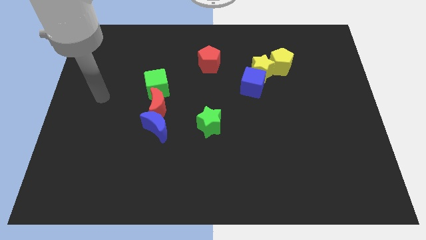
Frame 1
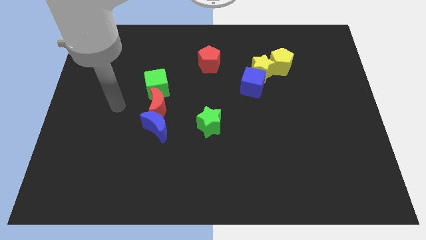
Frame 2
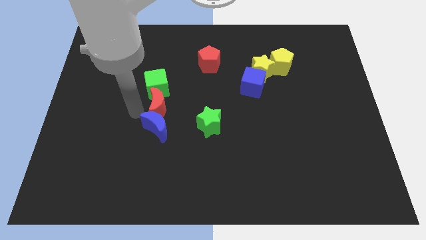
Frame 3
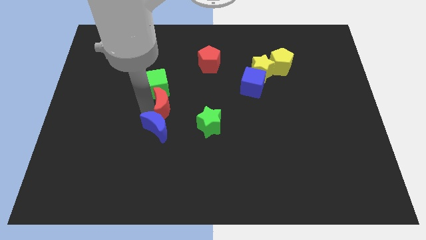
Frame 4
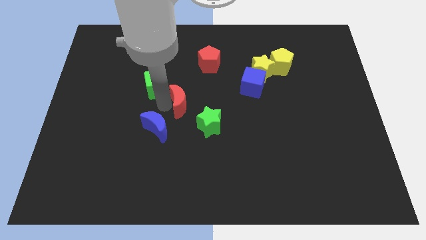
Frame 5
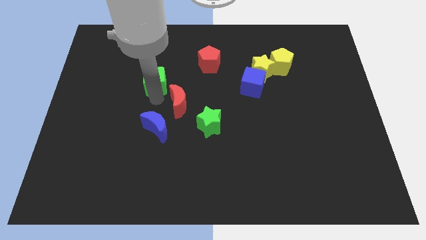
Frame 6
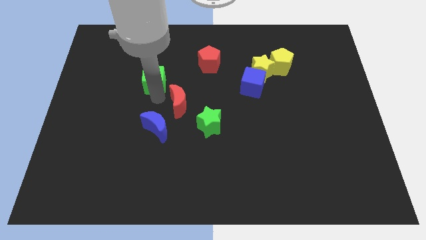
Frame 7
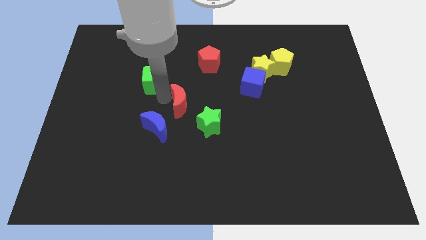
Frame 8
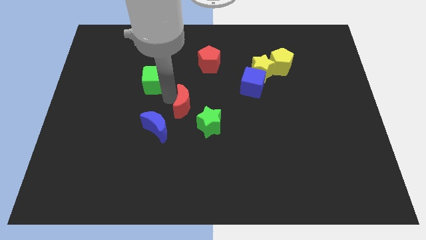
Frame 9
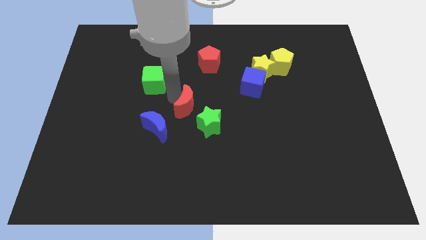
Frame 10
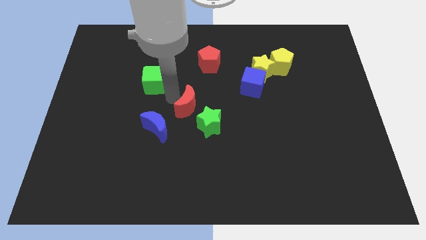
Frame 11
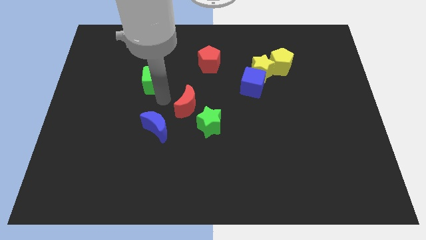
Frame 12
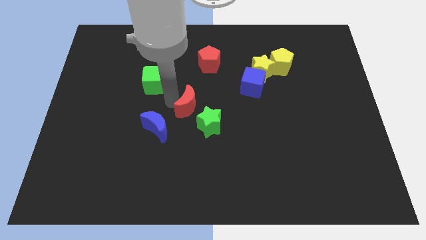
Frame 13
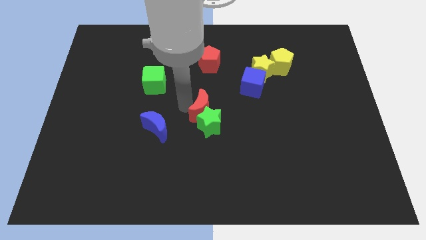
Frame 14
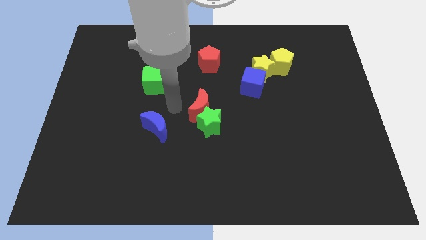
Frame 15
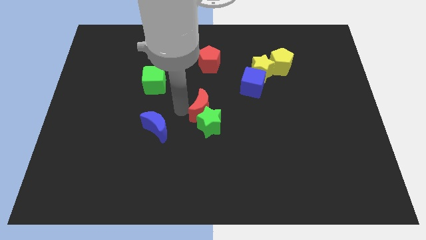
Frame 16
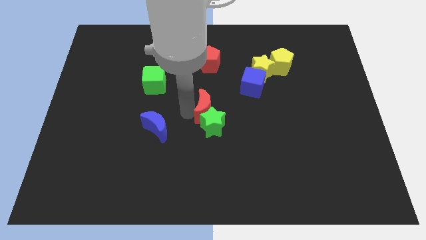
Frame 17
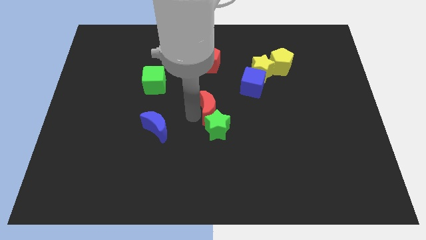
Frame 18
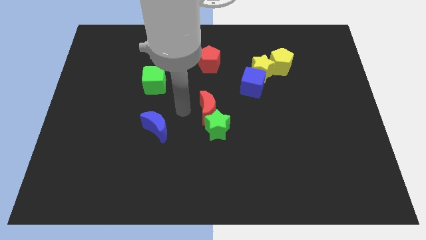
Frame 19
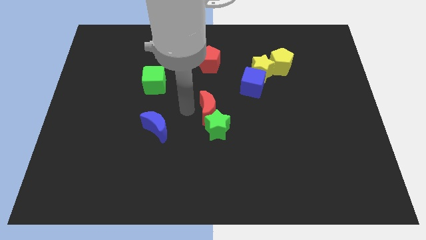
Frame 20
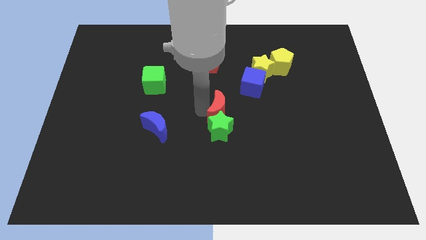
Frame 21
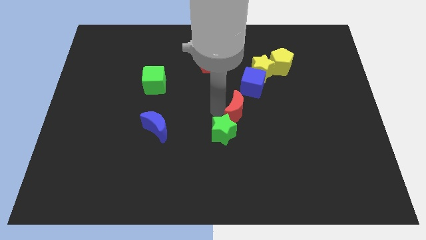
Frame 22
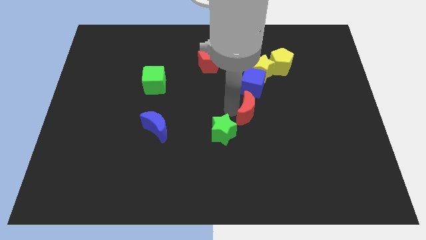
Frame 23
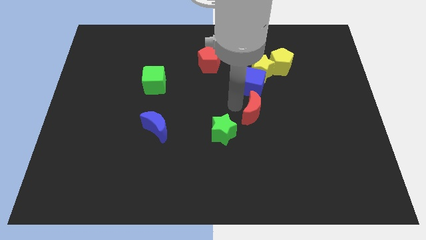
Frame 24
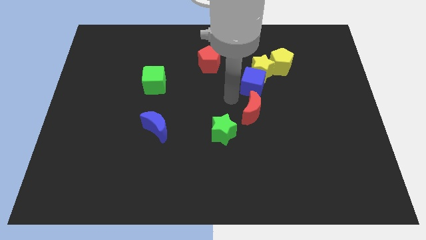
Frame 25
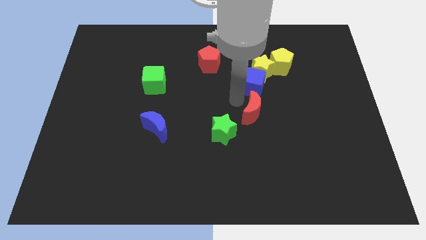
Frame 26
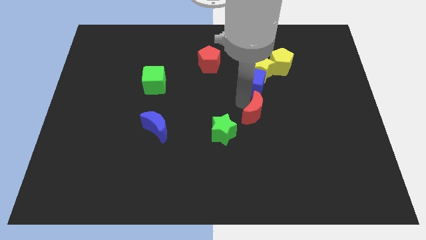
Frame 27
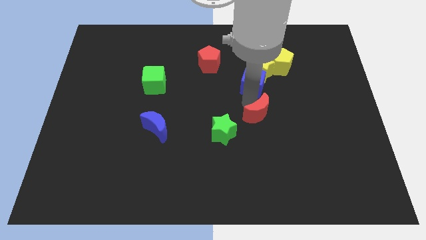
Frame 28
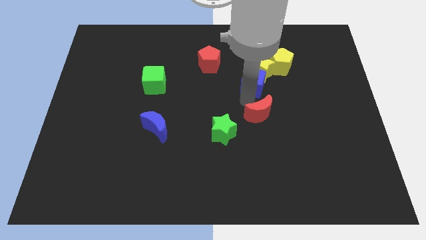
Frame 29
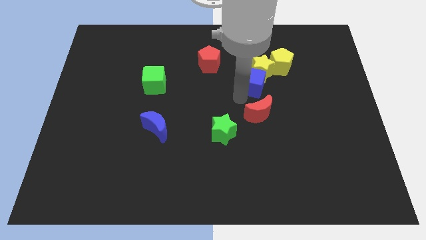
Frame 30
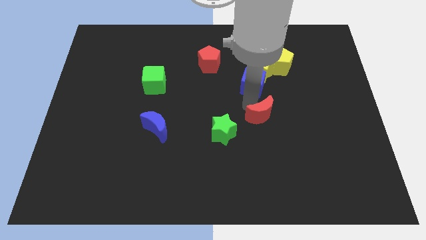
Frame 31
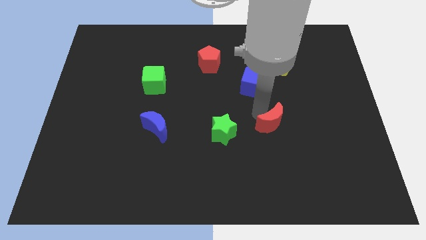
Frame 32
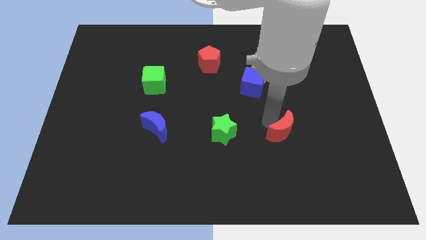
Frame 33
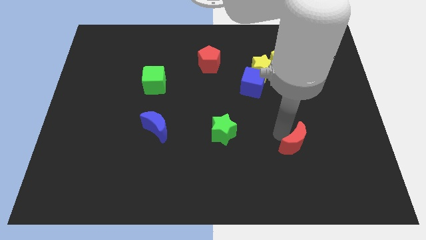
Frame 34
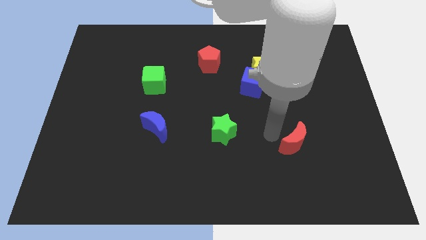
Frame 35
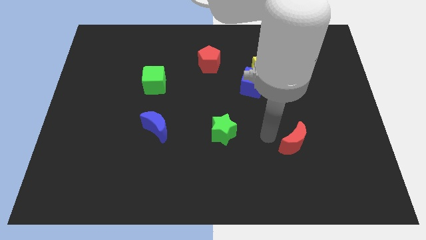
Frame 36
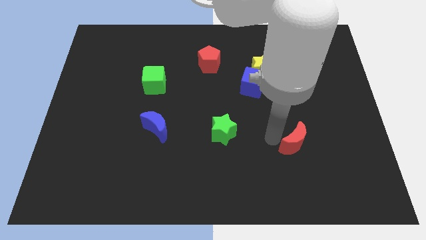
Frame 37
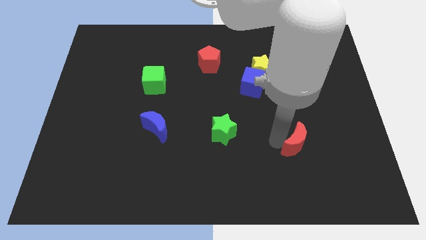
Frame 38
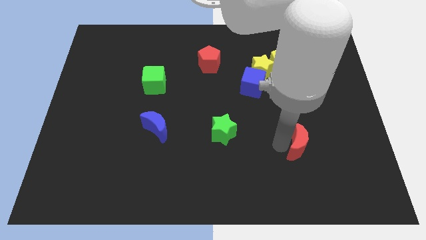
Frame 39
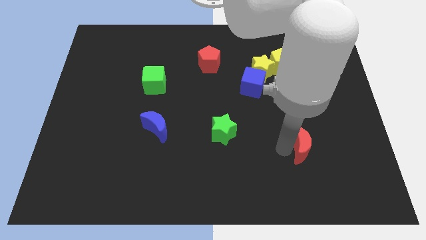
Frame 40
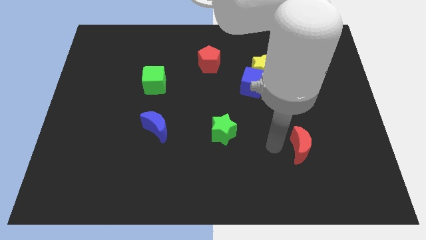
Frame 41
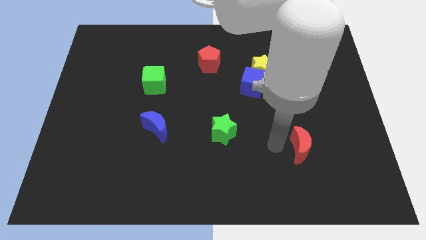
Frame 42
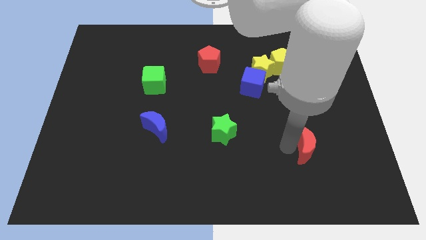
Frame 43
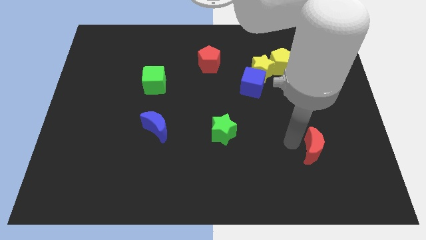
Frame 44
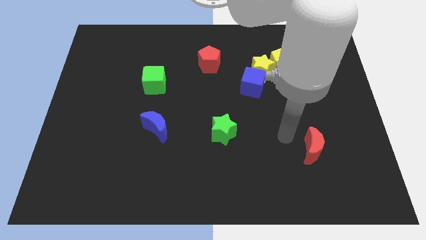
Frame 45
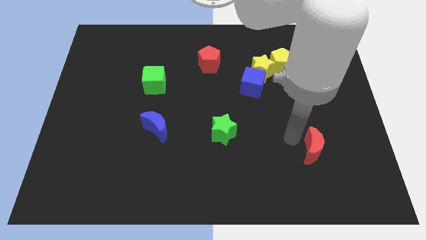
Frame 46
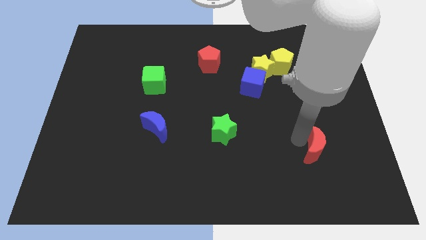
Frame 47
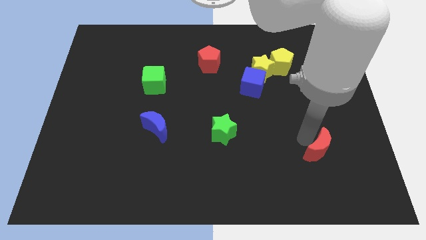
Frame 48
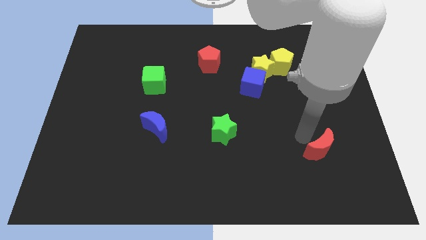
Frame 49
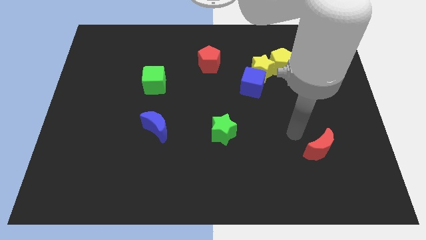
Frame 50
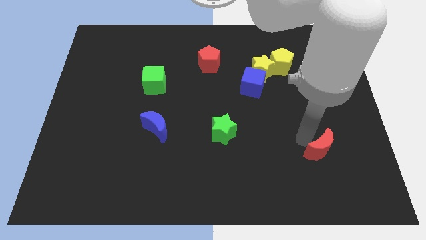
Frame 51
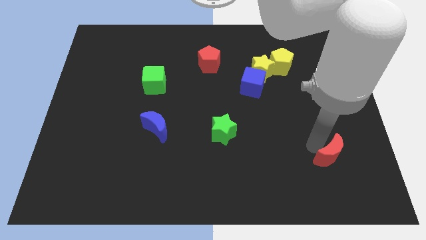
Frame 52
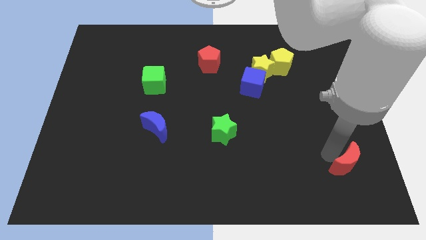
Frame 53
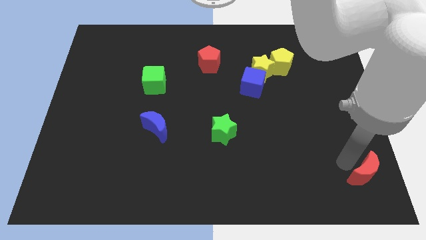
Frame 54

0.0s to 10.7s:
slide the red moon to the bottom right corner
